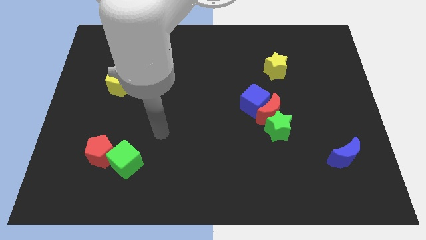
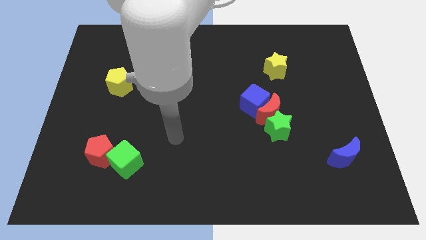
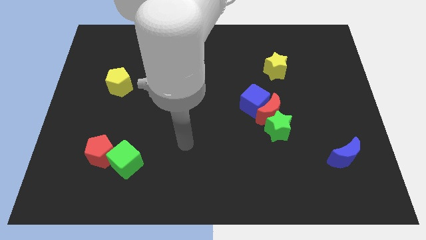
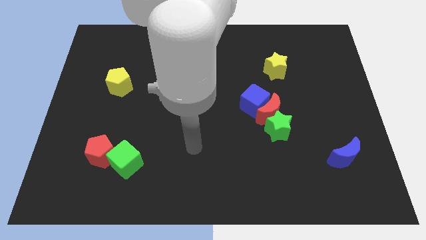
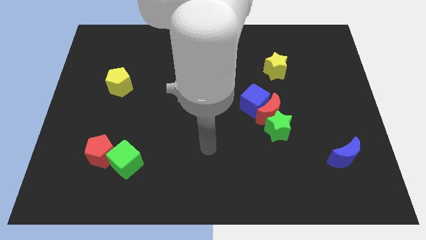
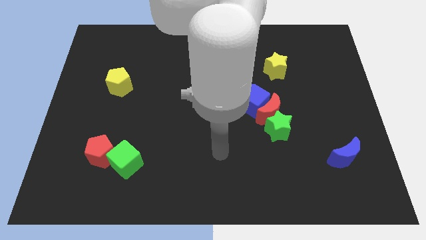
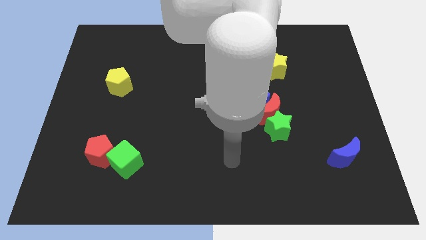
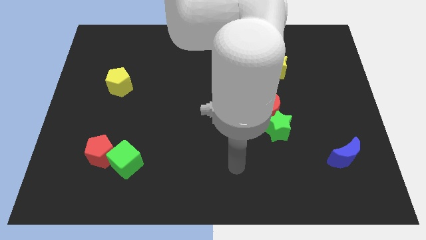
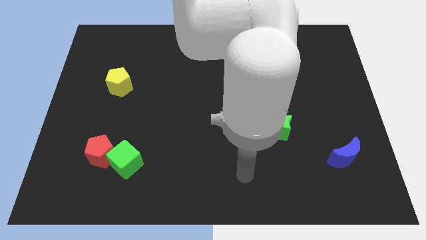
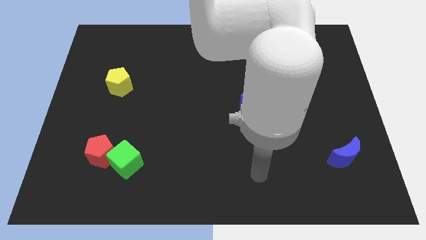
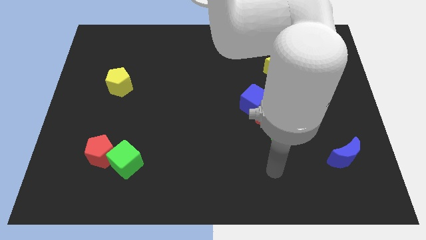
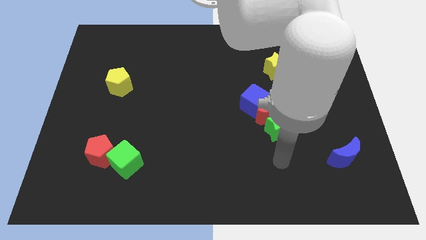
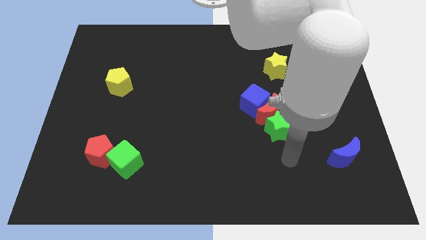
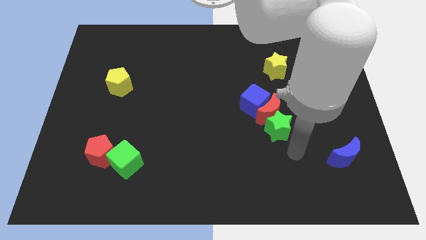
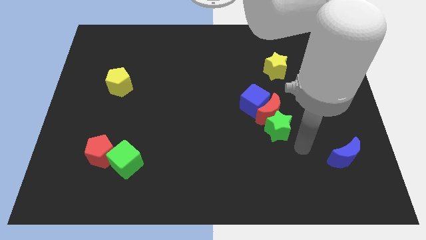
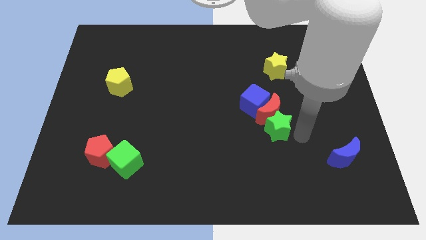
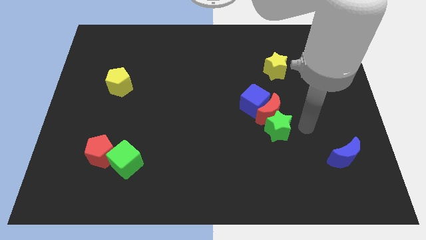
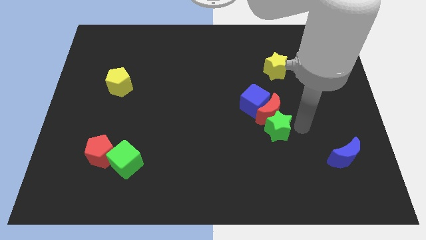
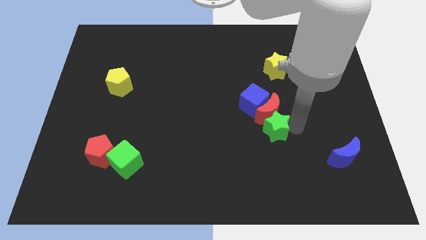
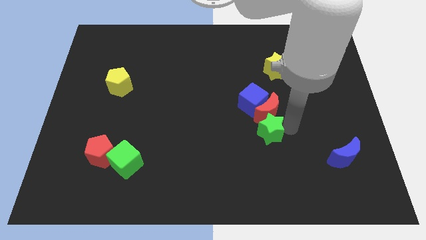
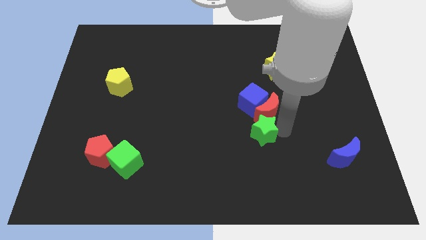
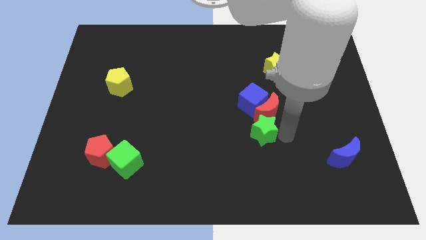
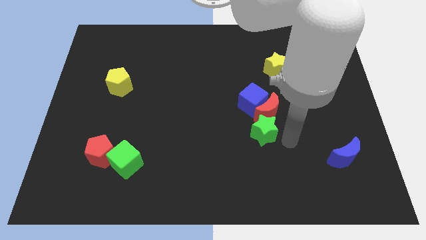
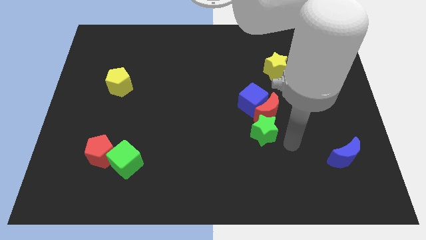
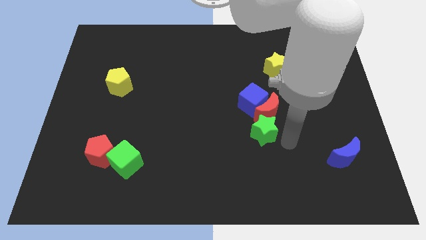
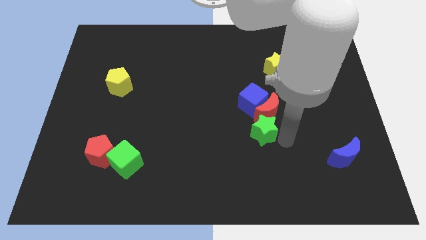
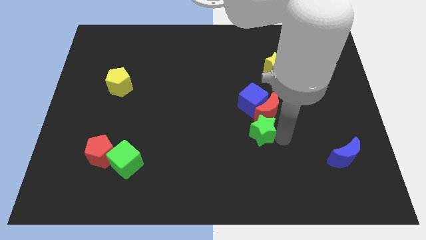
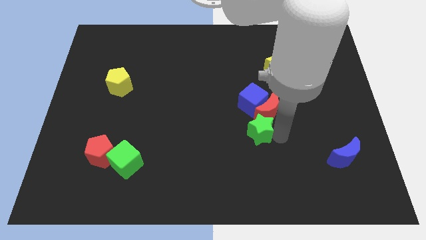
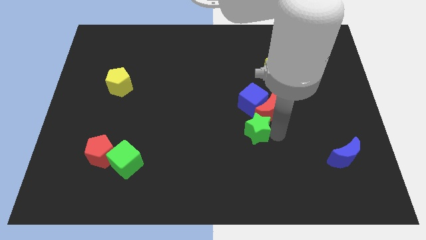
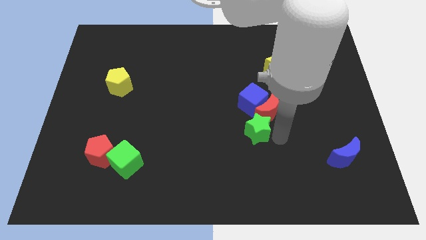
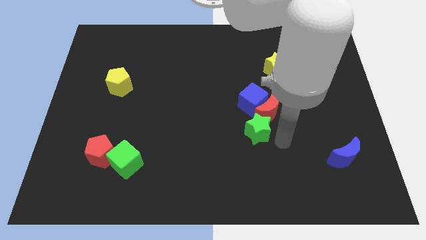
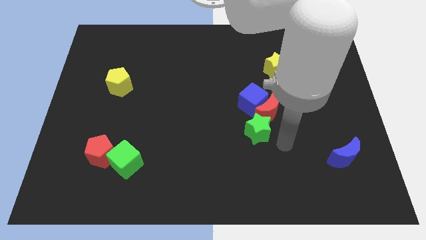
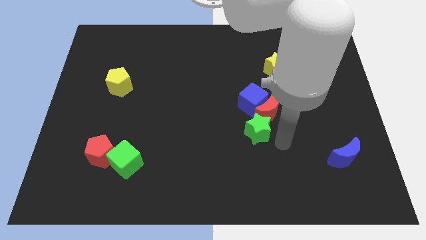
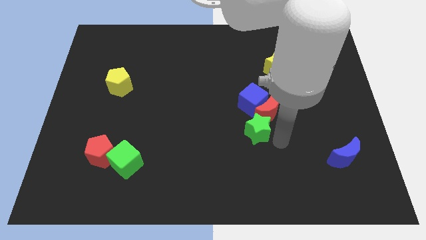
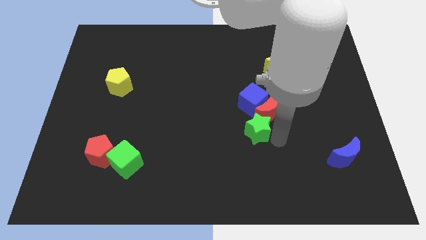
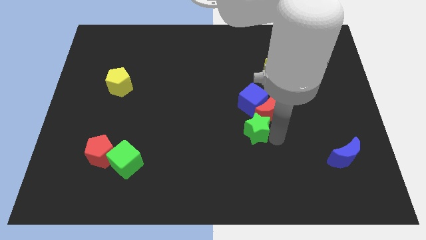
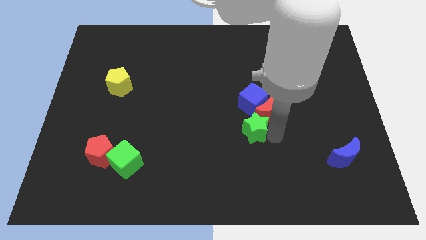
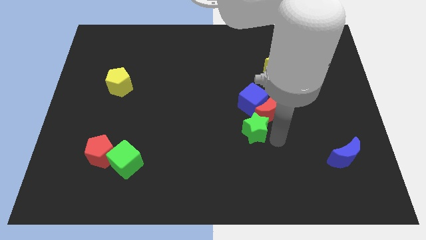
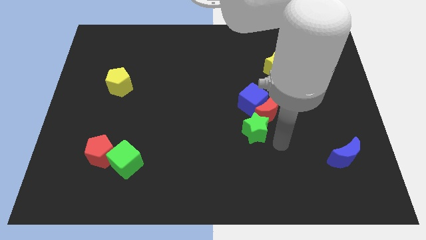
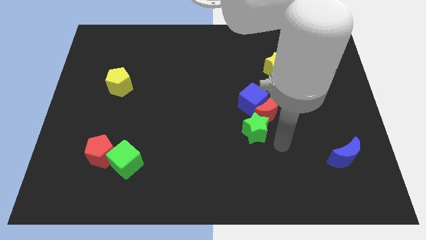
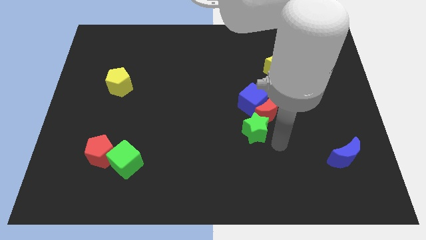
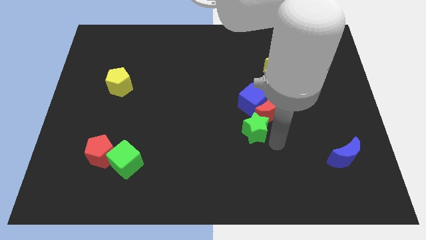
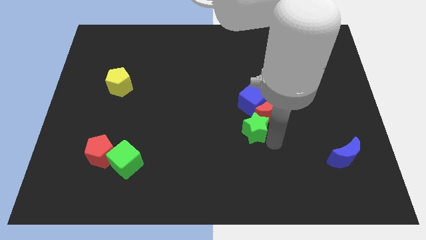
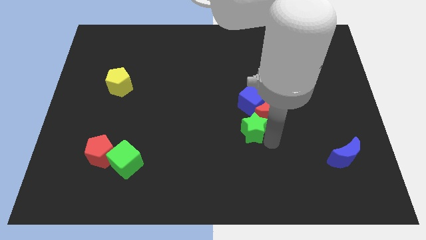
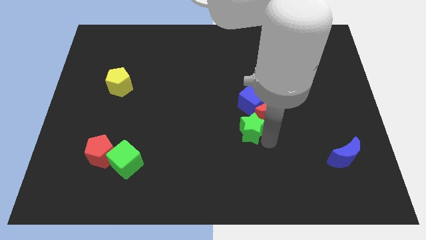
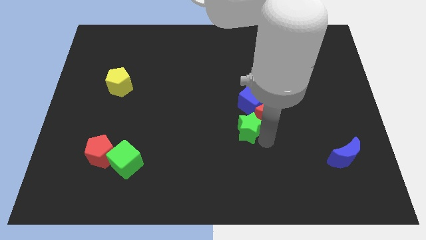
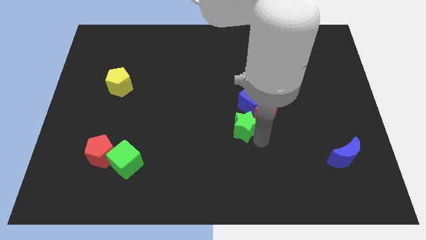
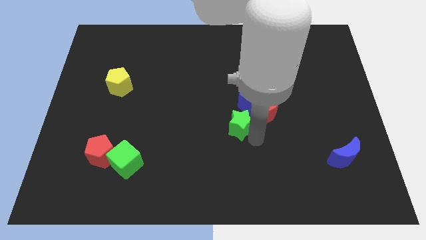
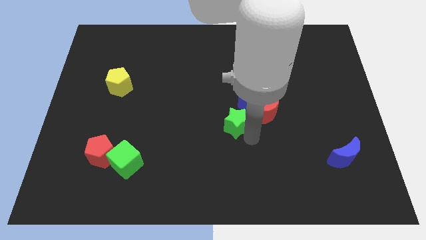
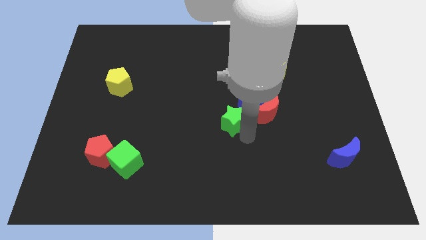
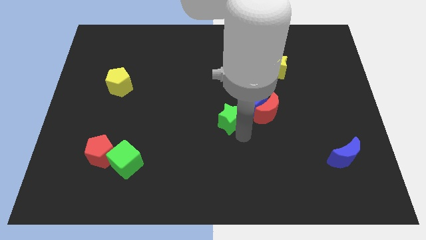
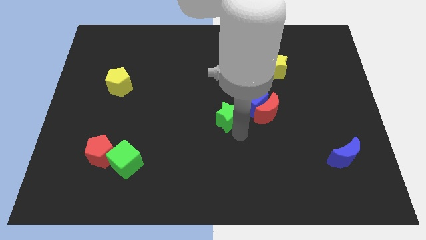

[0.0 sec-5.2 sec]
push the green star to the left of the blue cube

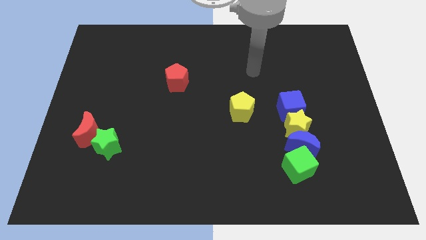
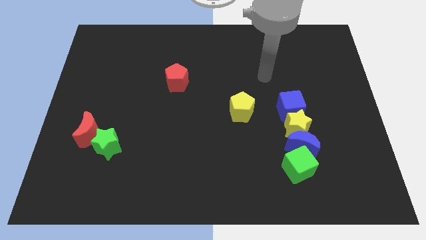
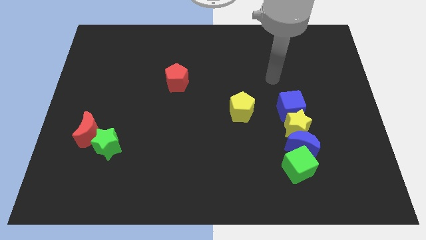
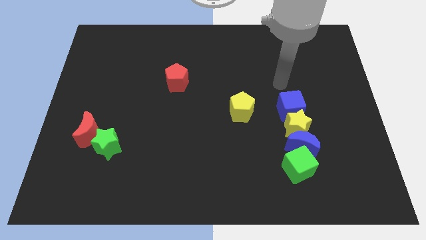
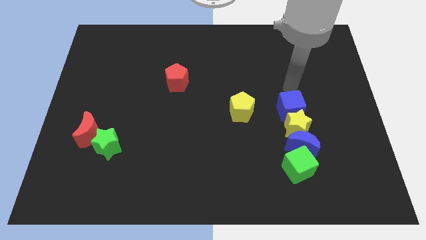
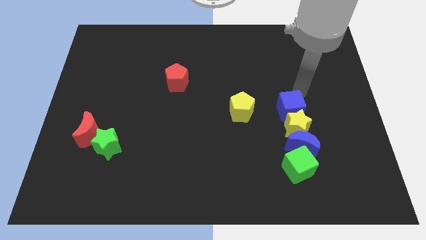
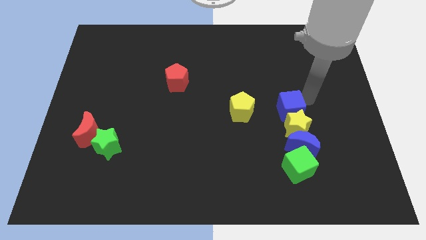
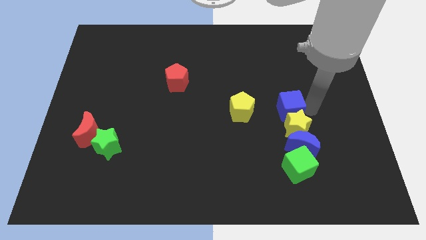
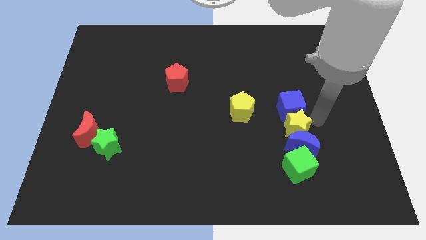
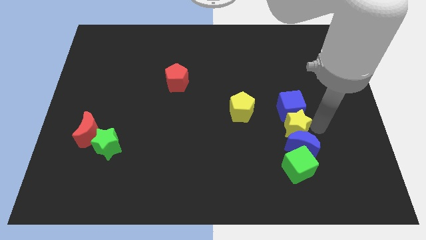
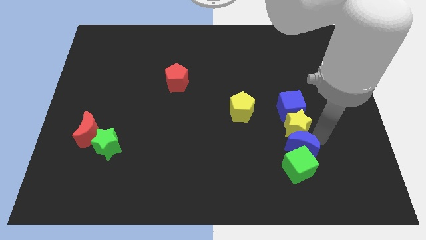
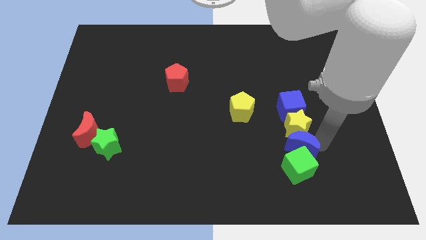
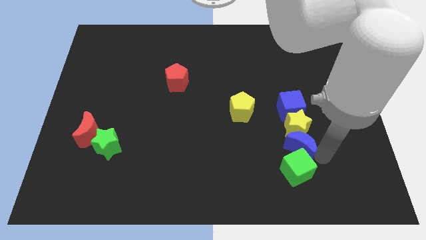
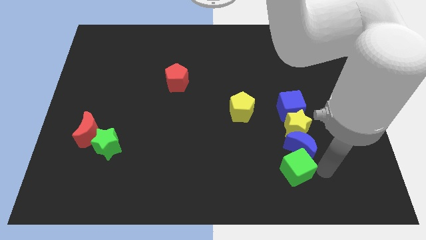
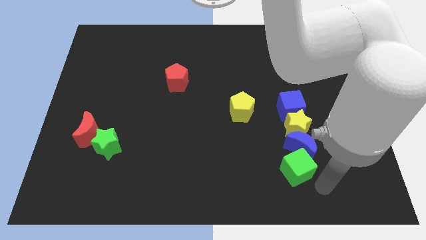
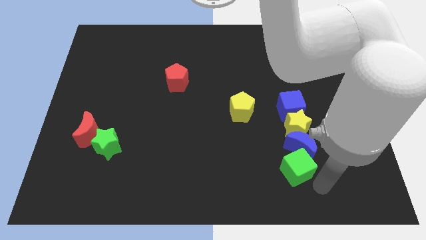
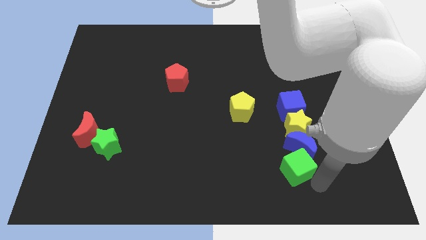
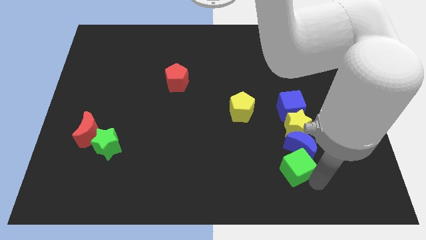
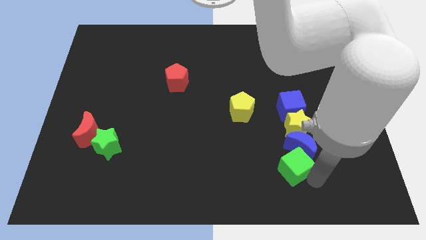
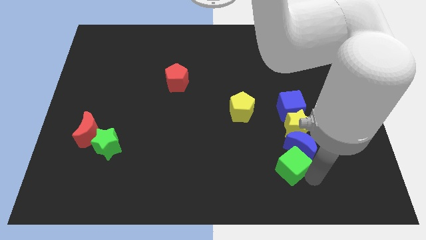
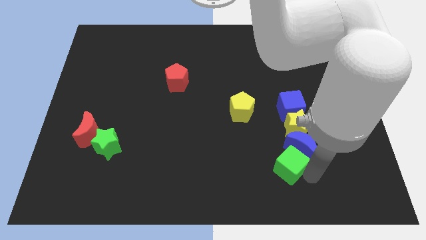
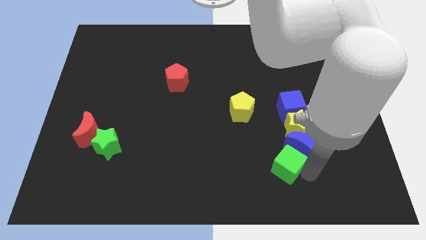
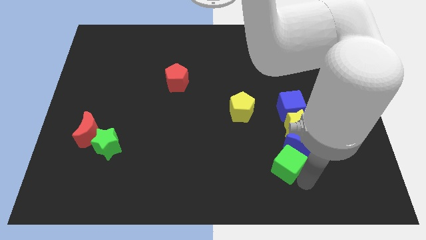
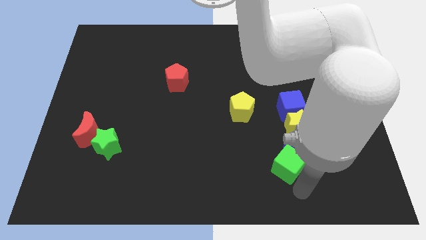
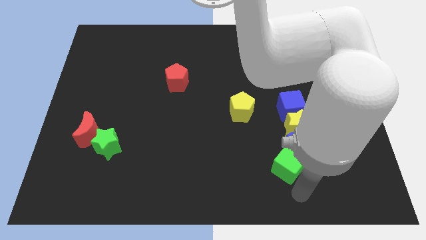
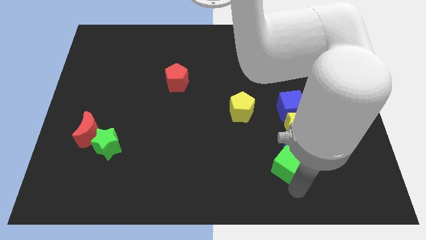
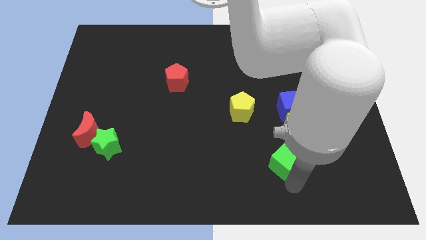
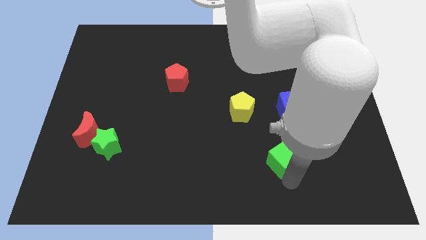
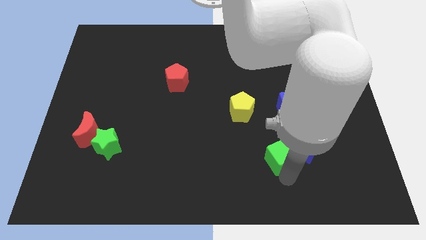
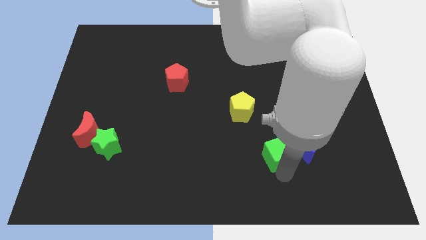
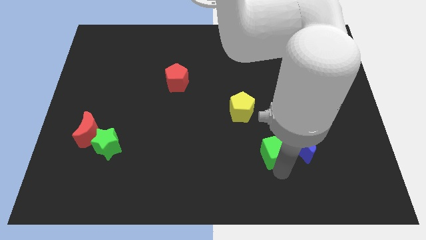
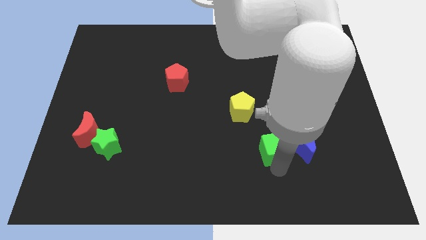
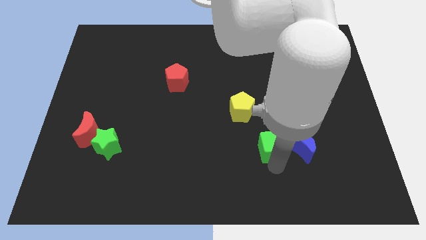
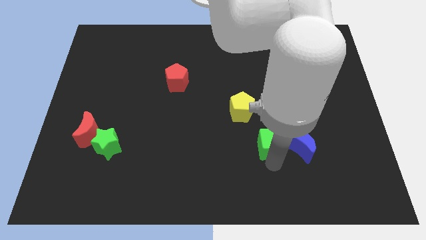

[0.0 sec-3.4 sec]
push the green cube diagonally down and to the left of the blue cube
